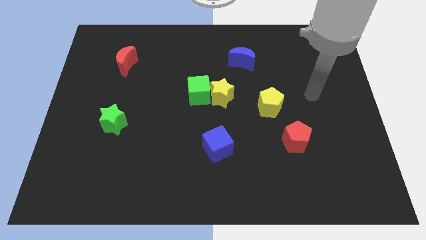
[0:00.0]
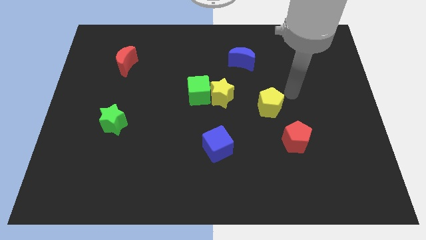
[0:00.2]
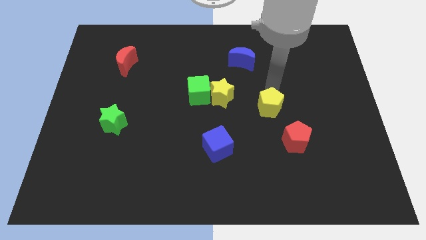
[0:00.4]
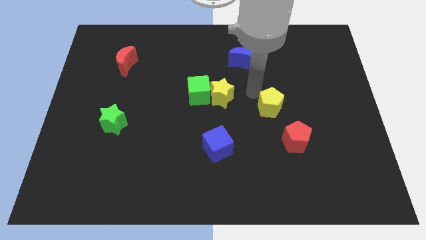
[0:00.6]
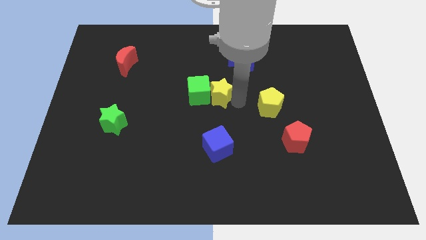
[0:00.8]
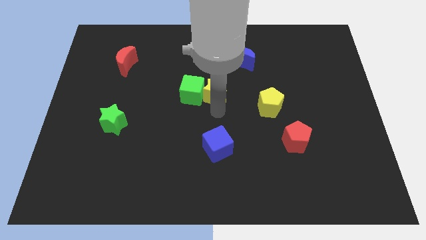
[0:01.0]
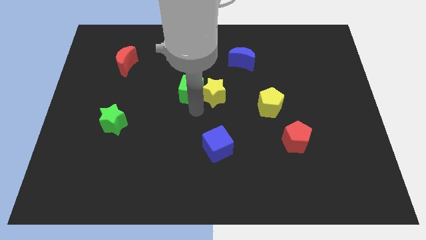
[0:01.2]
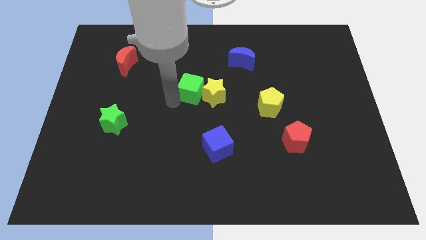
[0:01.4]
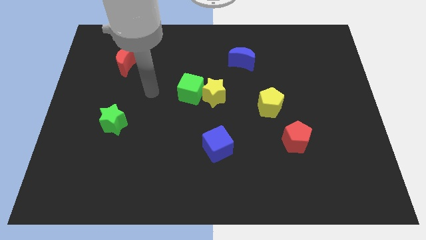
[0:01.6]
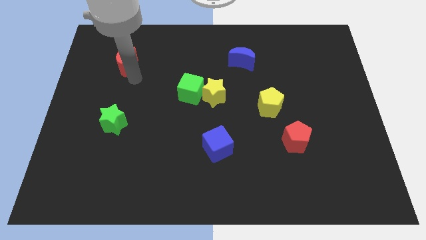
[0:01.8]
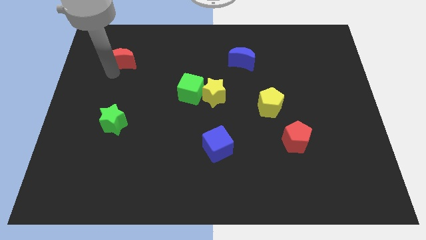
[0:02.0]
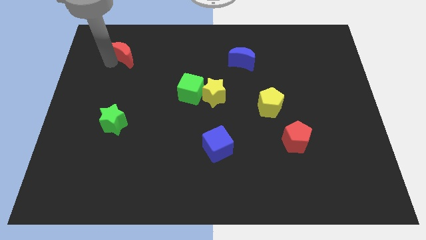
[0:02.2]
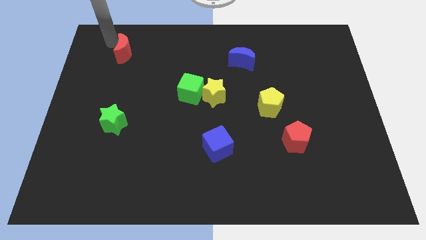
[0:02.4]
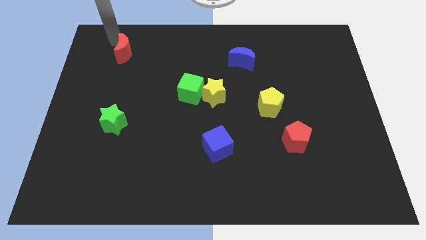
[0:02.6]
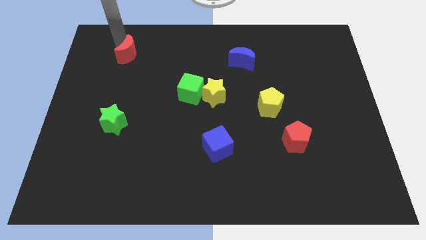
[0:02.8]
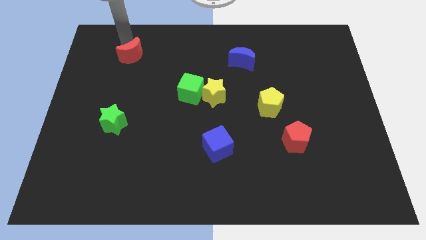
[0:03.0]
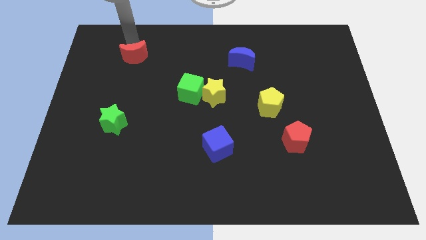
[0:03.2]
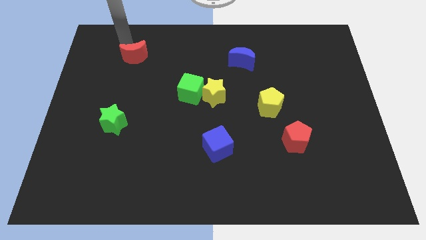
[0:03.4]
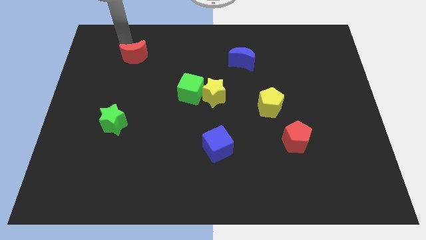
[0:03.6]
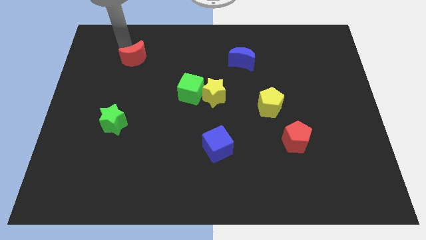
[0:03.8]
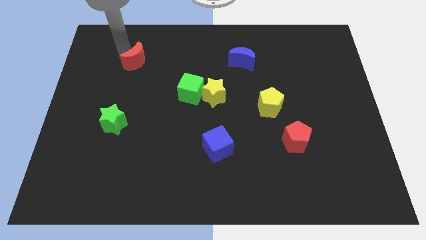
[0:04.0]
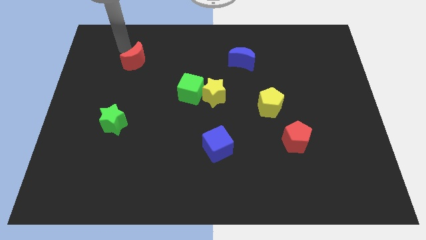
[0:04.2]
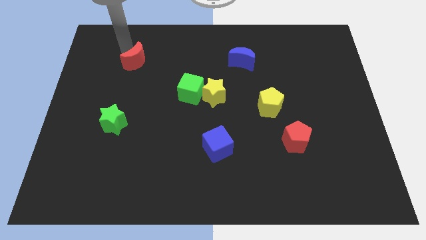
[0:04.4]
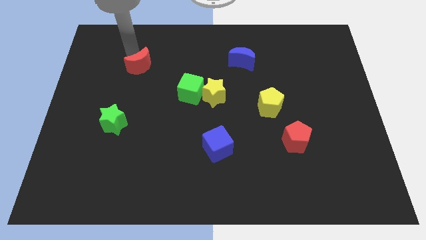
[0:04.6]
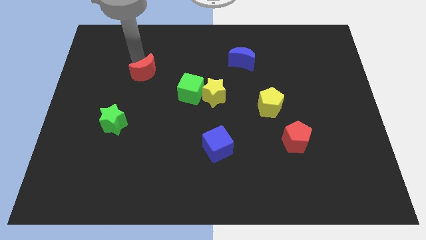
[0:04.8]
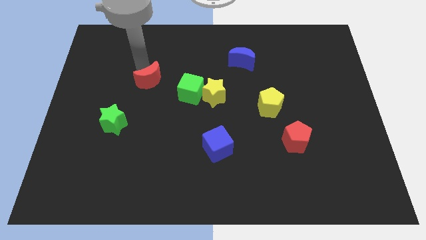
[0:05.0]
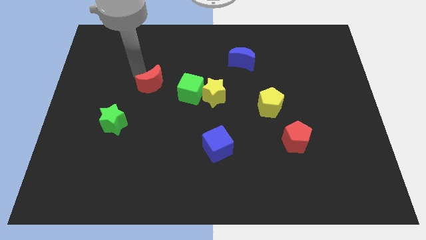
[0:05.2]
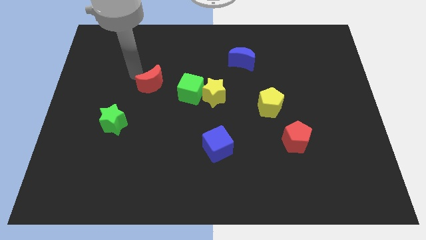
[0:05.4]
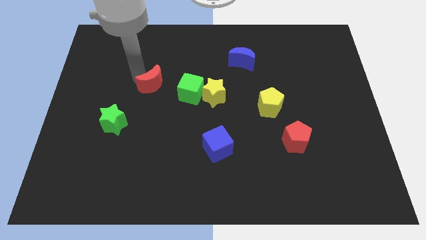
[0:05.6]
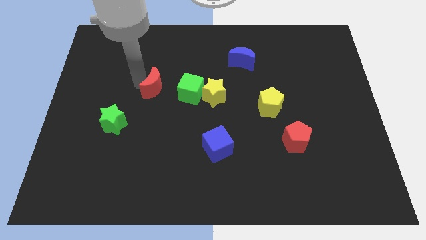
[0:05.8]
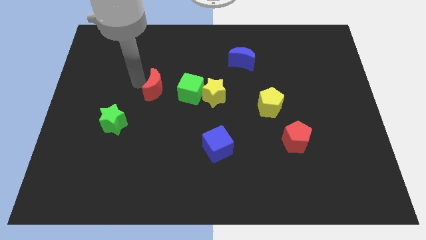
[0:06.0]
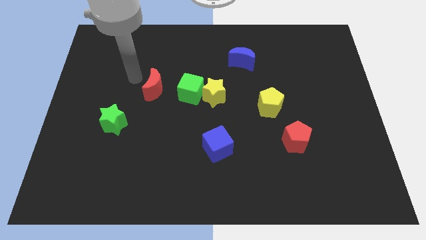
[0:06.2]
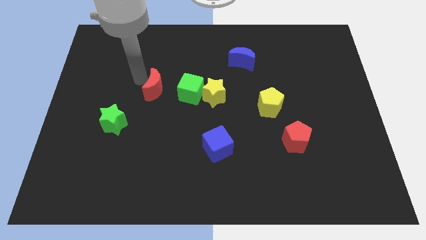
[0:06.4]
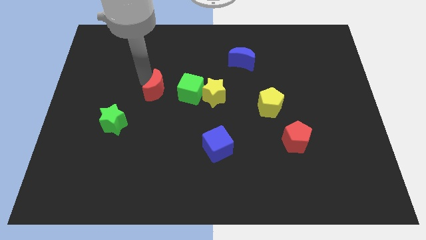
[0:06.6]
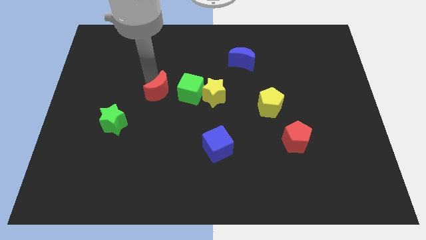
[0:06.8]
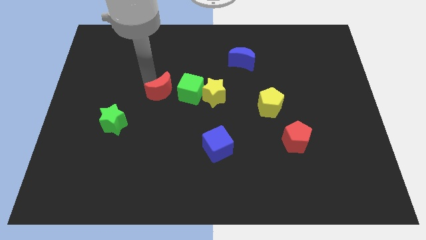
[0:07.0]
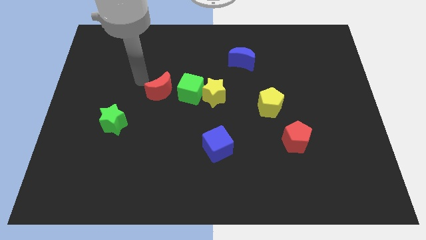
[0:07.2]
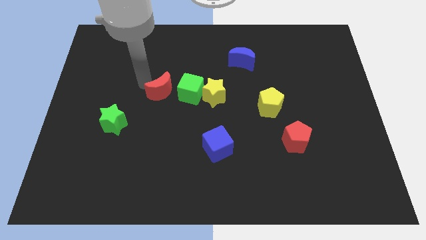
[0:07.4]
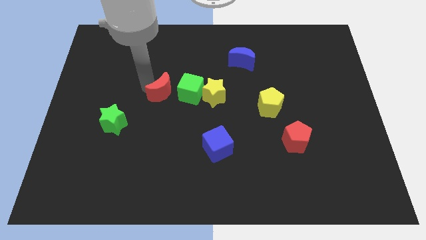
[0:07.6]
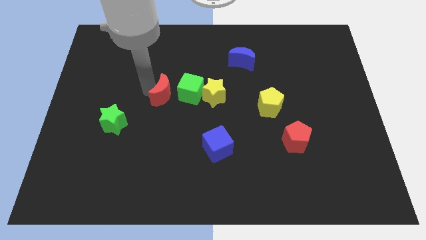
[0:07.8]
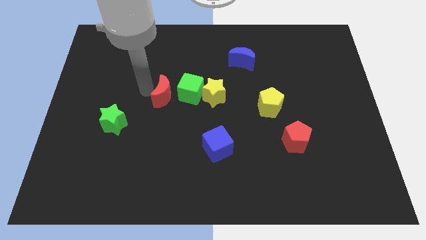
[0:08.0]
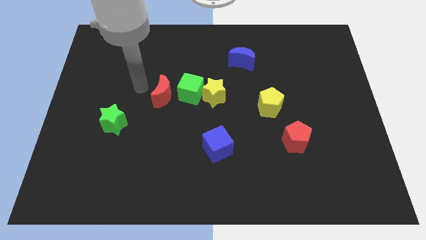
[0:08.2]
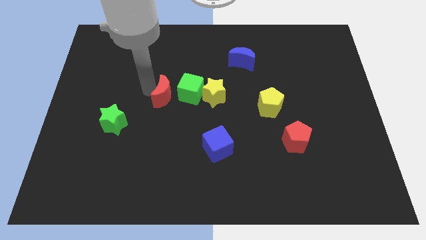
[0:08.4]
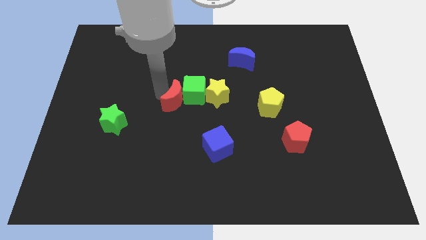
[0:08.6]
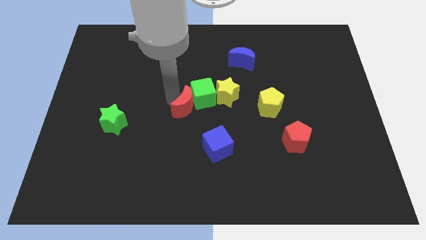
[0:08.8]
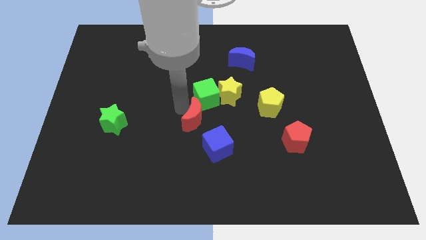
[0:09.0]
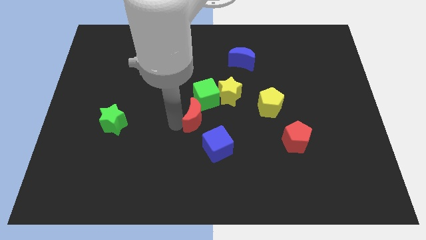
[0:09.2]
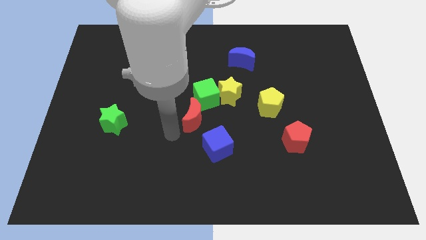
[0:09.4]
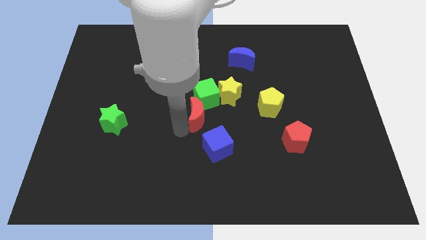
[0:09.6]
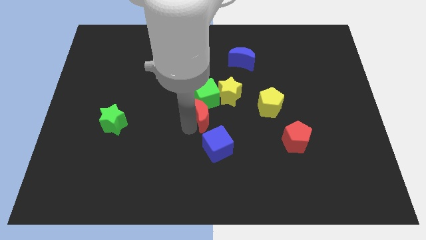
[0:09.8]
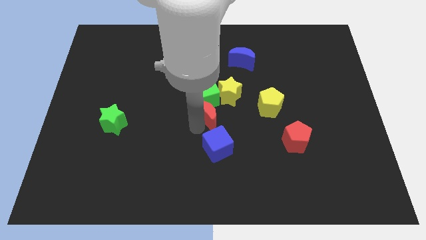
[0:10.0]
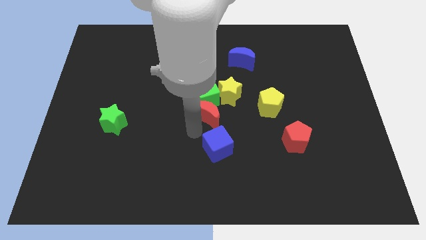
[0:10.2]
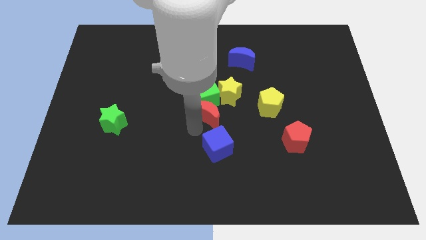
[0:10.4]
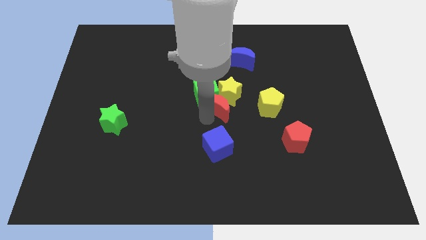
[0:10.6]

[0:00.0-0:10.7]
move the red moon next to the yellow star

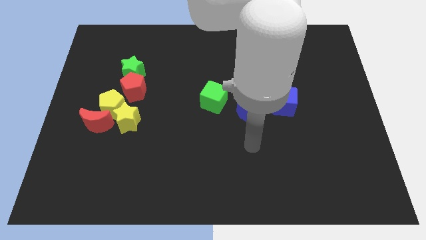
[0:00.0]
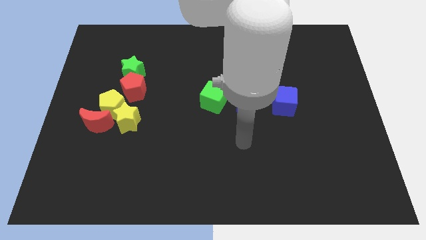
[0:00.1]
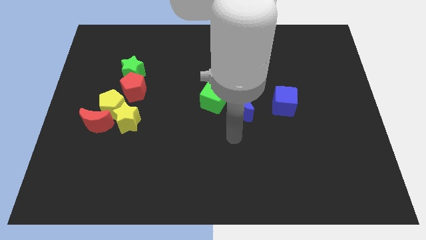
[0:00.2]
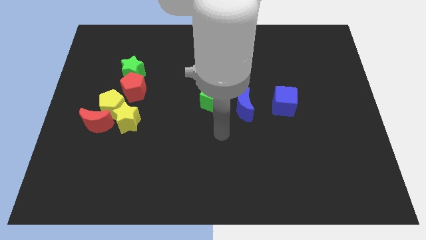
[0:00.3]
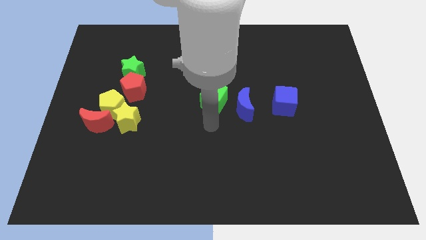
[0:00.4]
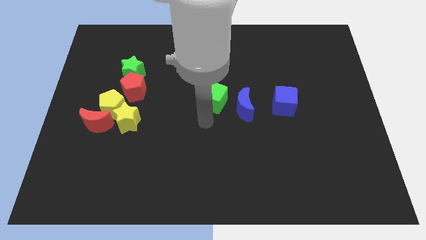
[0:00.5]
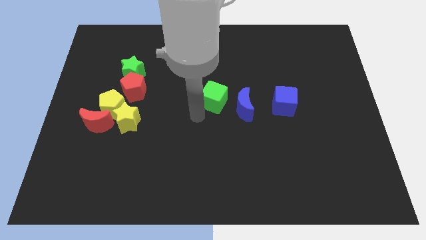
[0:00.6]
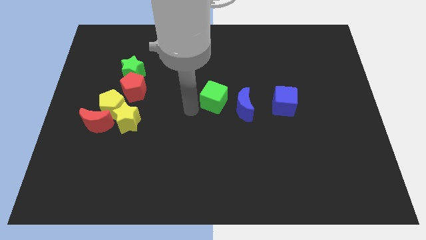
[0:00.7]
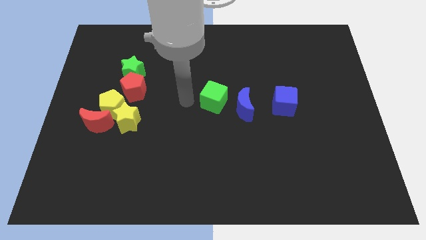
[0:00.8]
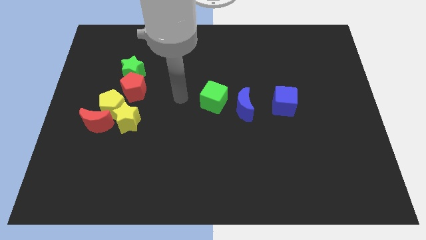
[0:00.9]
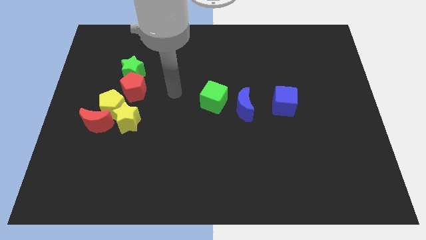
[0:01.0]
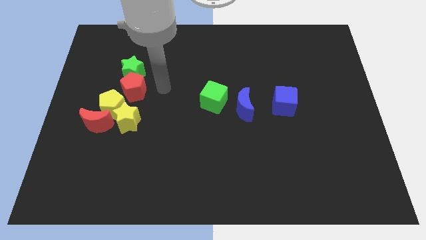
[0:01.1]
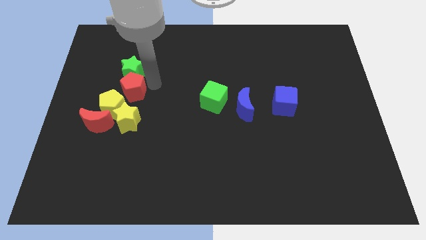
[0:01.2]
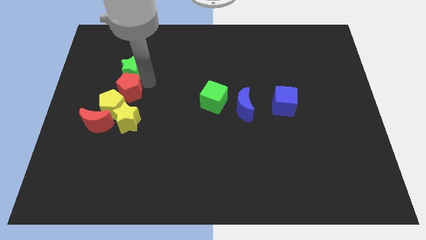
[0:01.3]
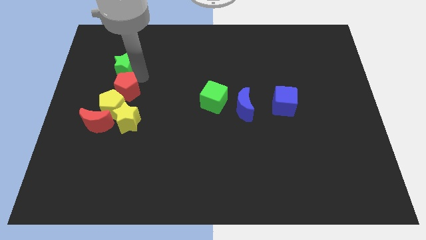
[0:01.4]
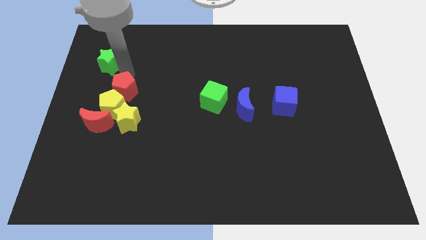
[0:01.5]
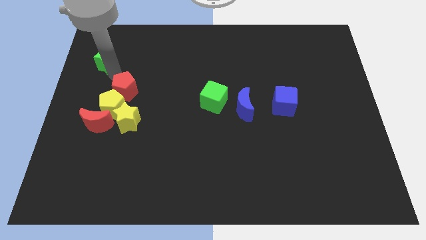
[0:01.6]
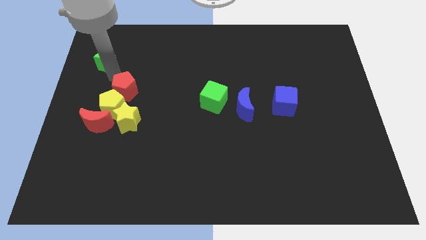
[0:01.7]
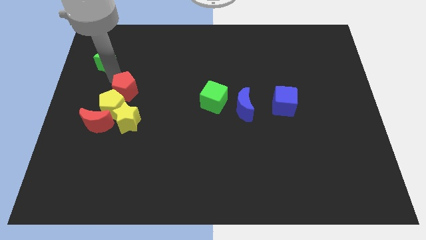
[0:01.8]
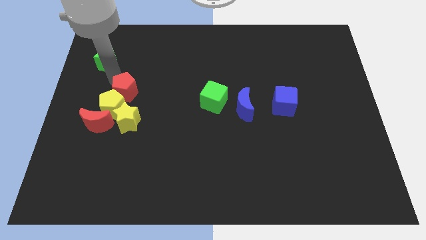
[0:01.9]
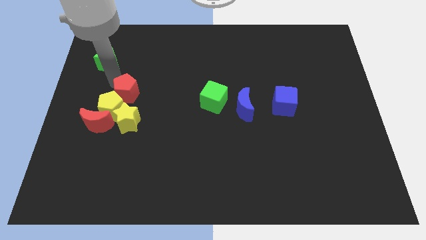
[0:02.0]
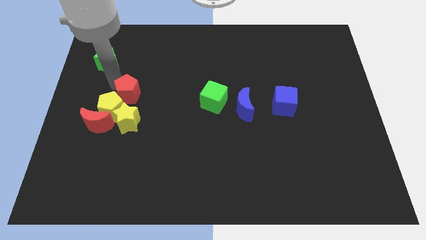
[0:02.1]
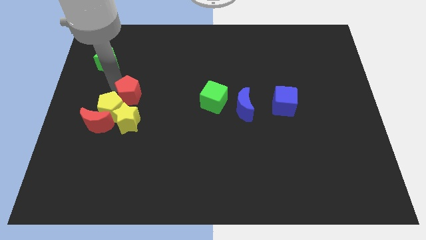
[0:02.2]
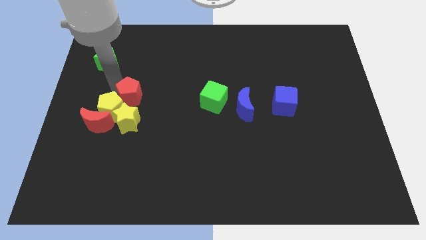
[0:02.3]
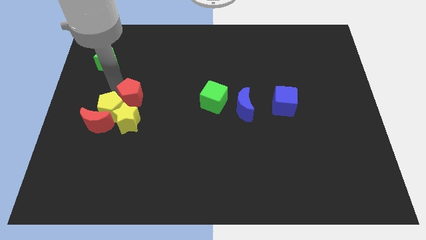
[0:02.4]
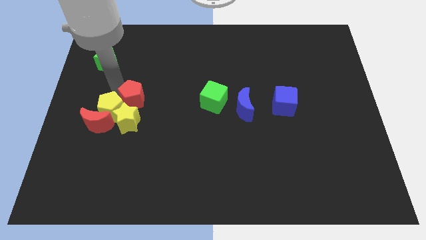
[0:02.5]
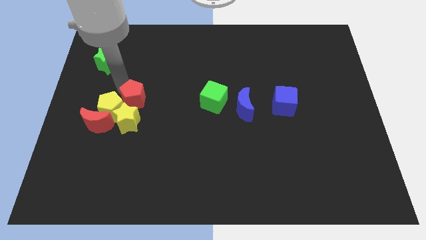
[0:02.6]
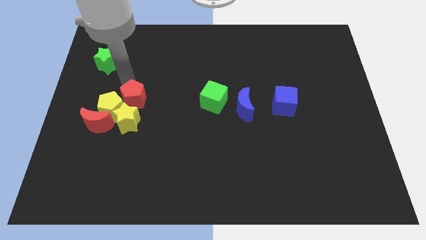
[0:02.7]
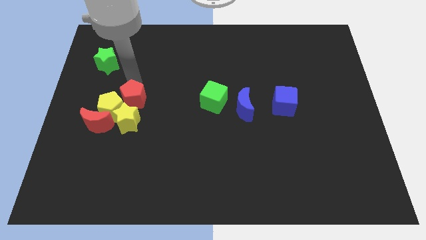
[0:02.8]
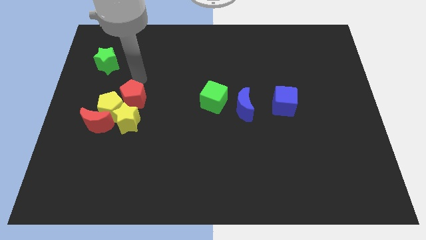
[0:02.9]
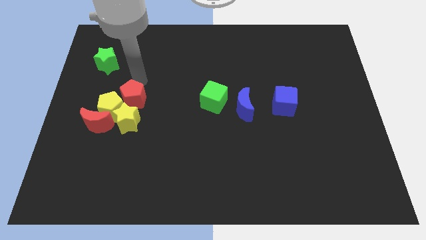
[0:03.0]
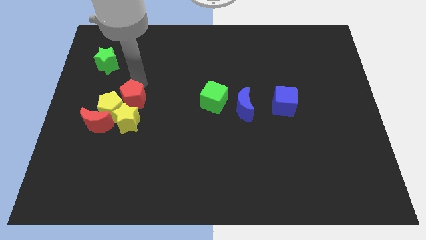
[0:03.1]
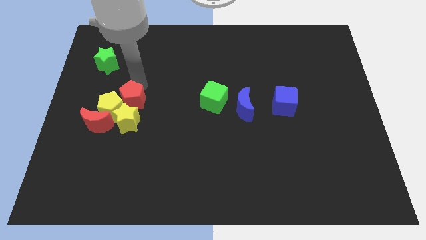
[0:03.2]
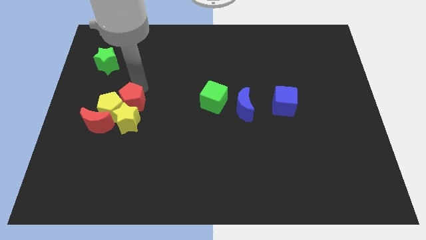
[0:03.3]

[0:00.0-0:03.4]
put the red pentagon towards the yellow star
